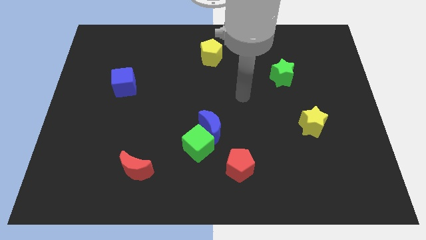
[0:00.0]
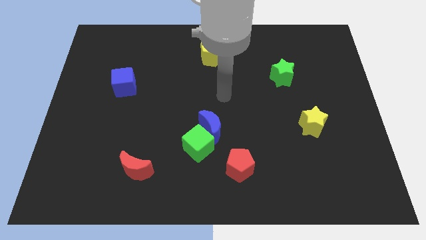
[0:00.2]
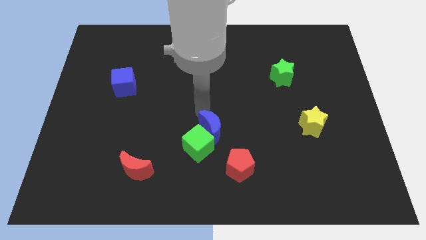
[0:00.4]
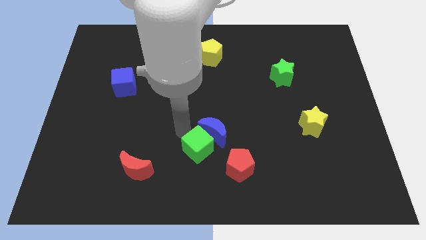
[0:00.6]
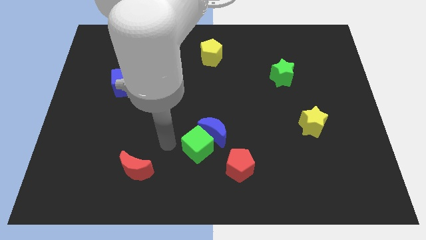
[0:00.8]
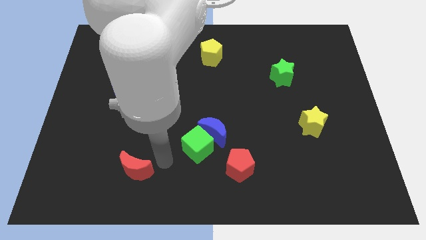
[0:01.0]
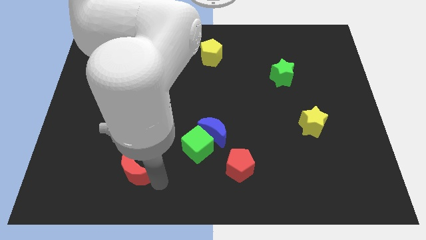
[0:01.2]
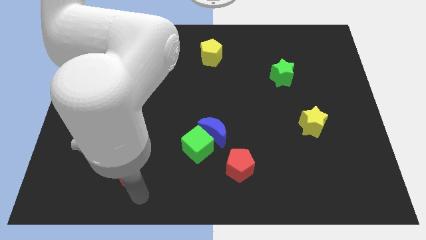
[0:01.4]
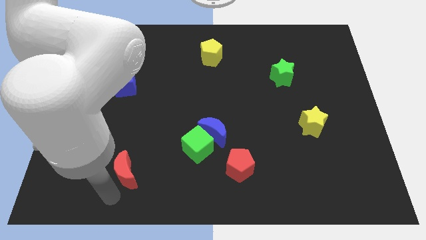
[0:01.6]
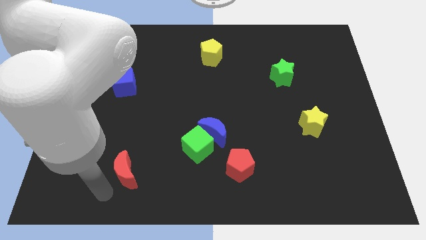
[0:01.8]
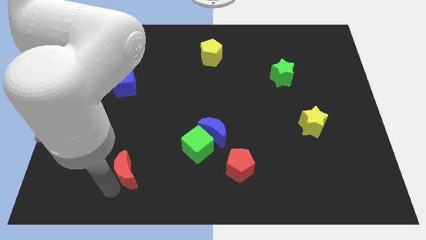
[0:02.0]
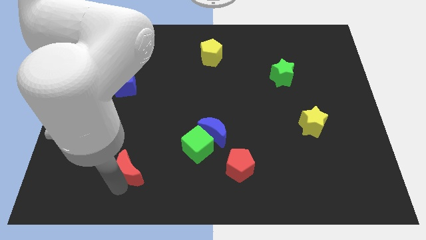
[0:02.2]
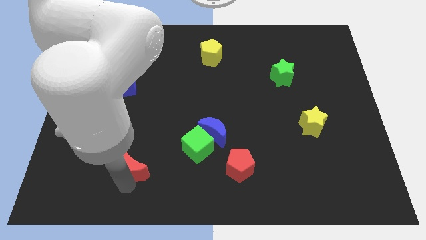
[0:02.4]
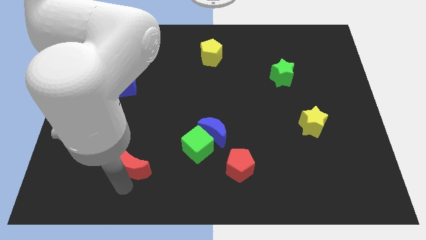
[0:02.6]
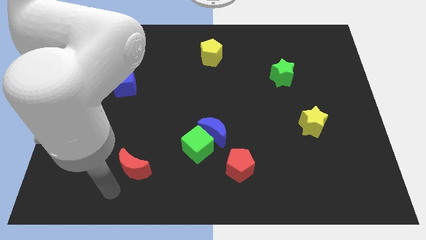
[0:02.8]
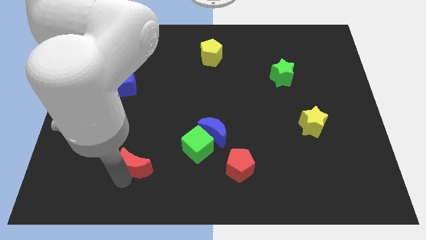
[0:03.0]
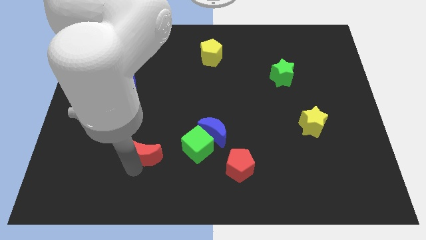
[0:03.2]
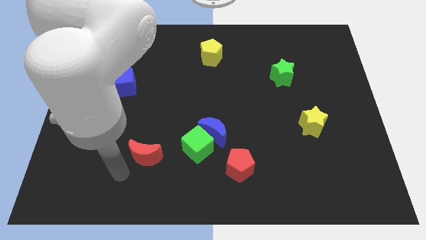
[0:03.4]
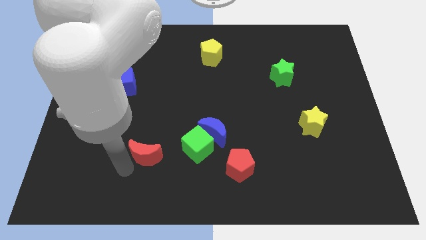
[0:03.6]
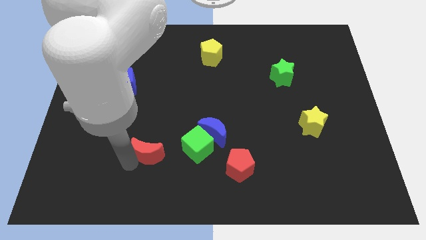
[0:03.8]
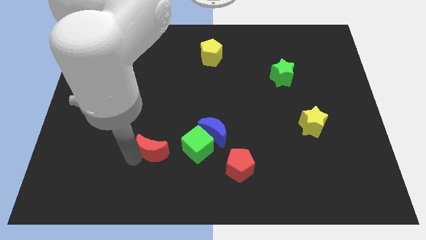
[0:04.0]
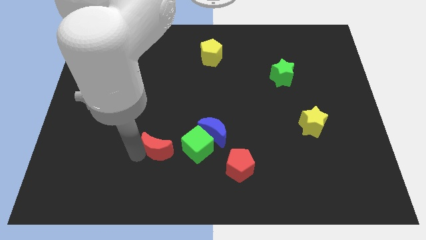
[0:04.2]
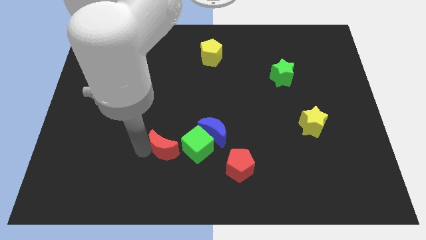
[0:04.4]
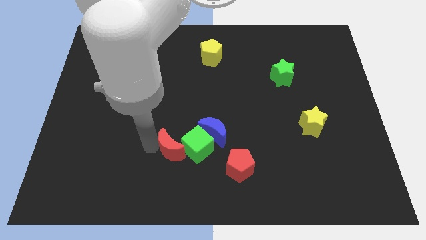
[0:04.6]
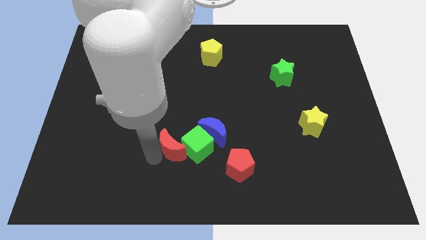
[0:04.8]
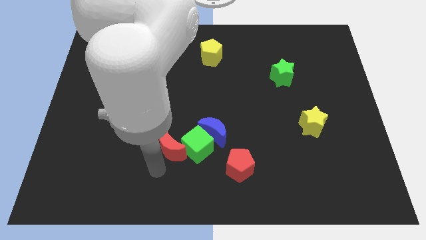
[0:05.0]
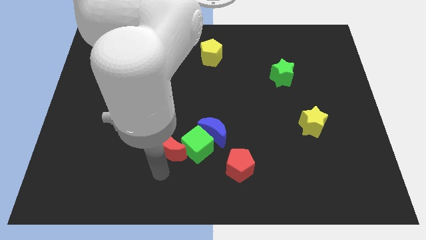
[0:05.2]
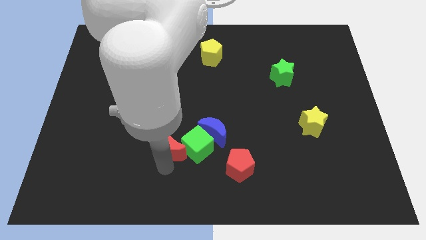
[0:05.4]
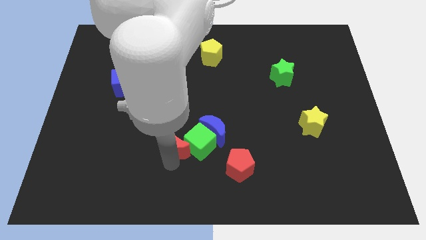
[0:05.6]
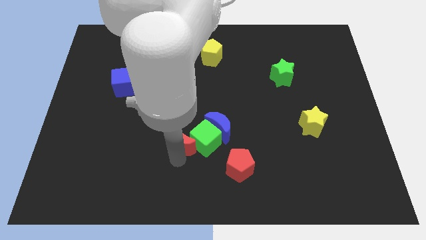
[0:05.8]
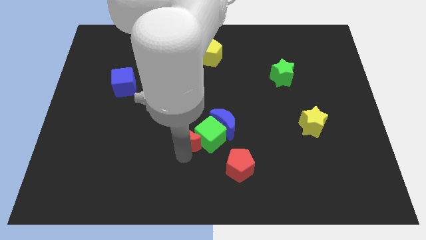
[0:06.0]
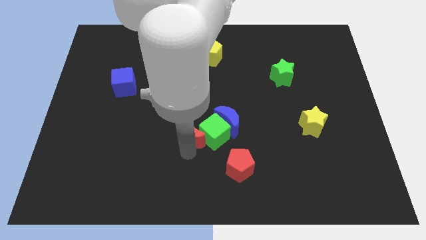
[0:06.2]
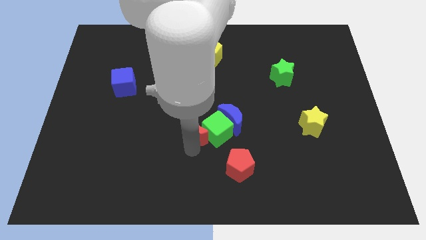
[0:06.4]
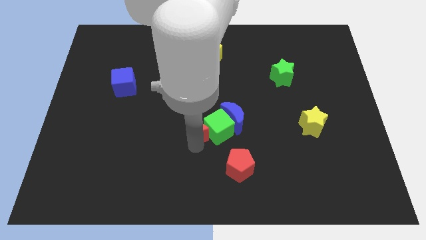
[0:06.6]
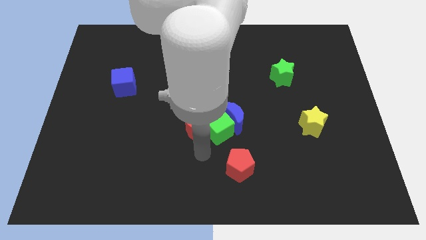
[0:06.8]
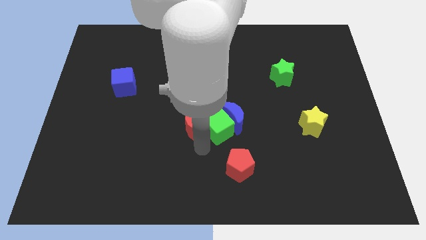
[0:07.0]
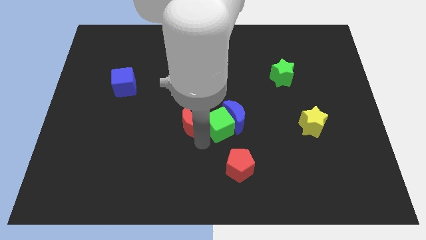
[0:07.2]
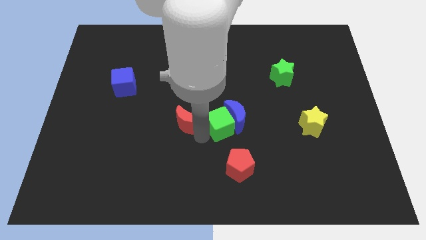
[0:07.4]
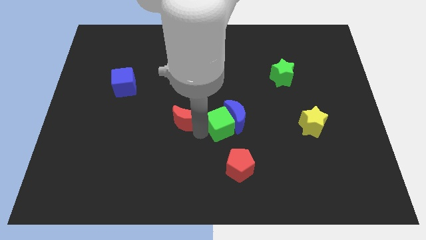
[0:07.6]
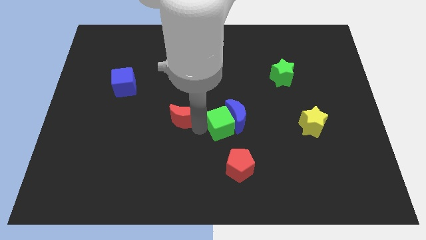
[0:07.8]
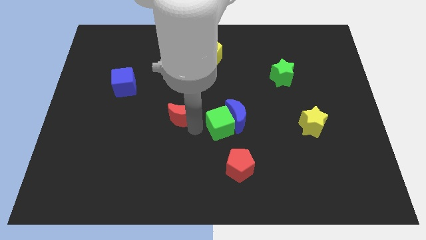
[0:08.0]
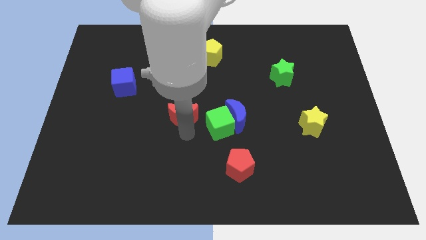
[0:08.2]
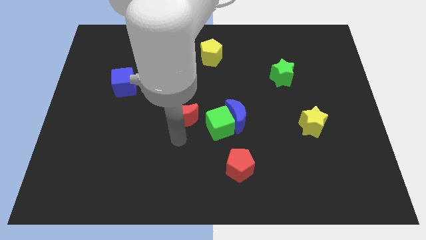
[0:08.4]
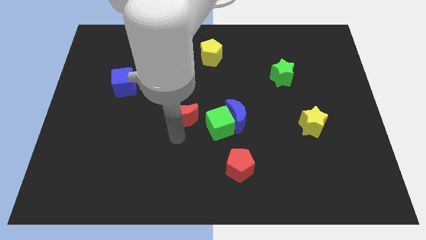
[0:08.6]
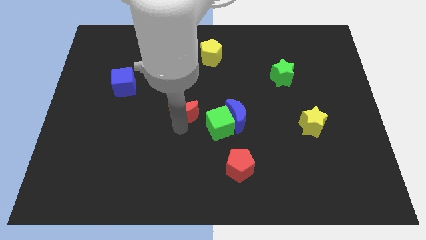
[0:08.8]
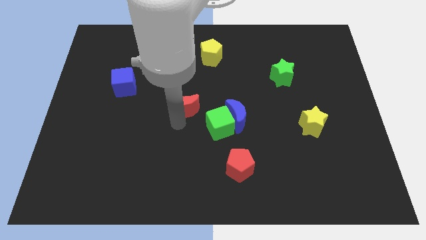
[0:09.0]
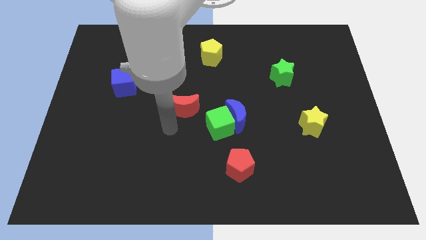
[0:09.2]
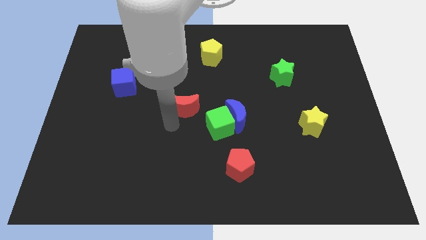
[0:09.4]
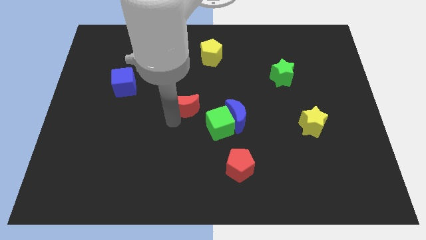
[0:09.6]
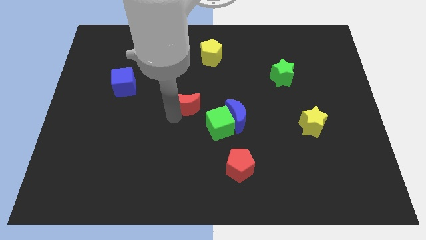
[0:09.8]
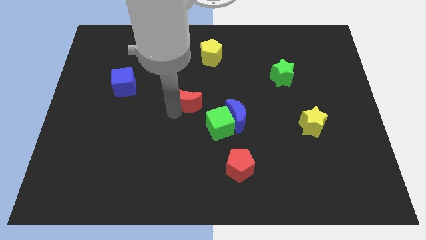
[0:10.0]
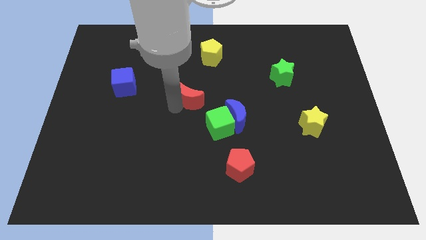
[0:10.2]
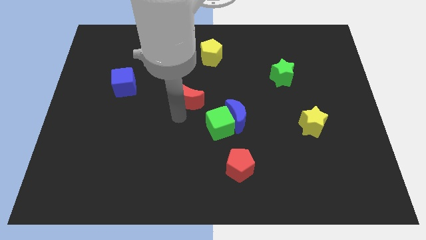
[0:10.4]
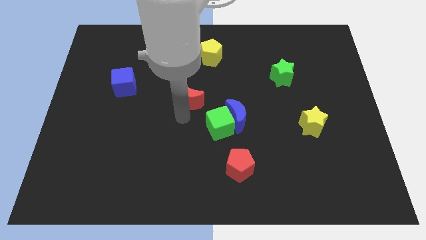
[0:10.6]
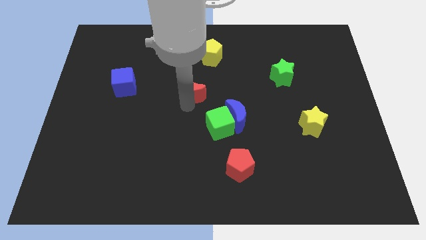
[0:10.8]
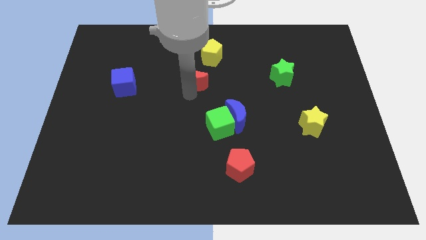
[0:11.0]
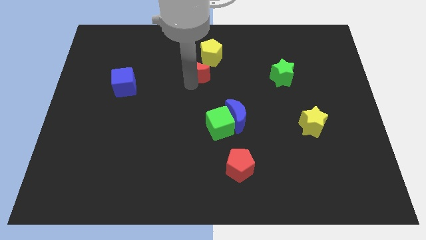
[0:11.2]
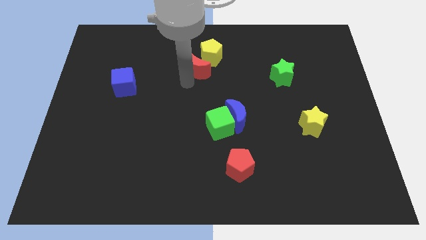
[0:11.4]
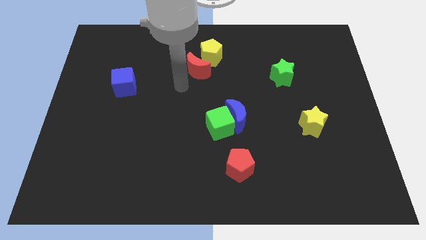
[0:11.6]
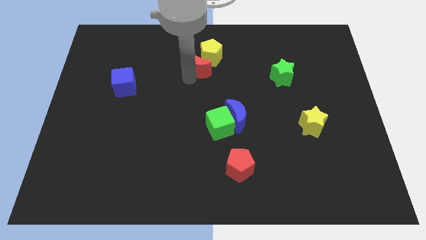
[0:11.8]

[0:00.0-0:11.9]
move the red moon next to the yellow pentagon

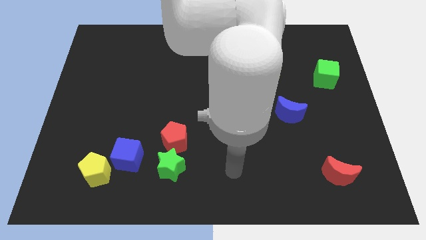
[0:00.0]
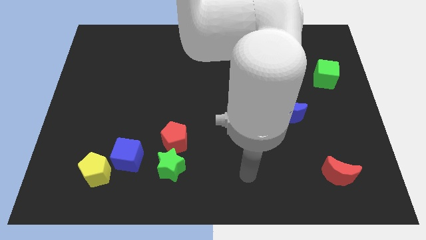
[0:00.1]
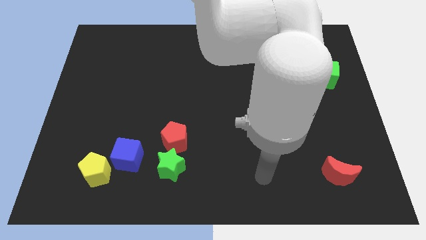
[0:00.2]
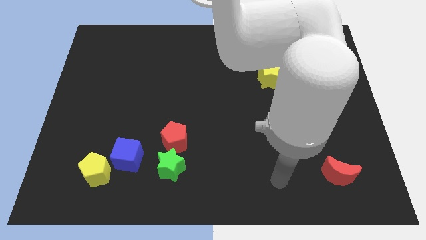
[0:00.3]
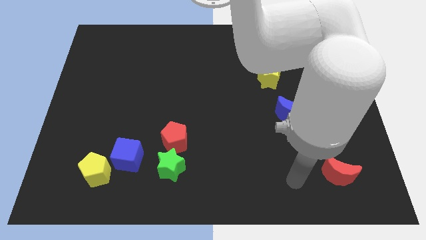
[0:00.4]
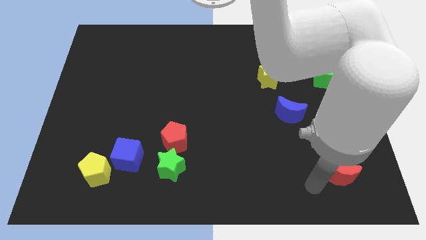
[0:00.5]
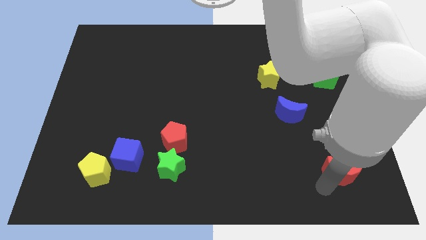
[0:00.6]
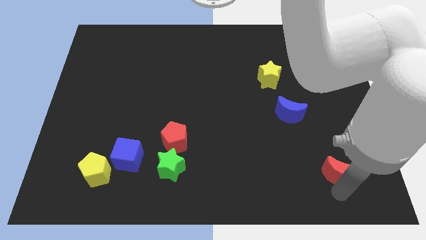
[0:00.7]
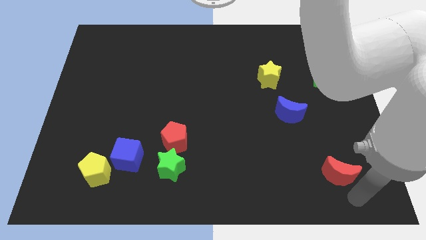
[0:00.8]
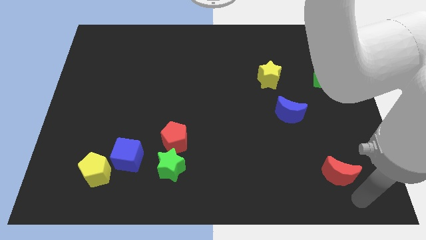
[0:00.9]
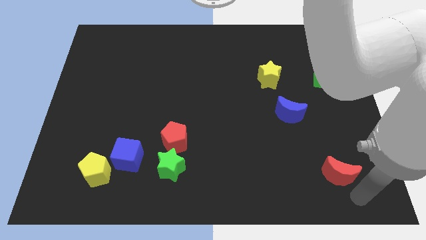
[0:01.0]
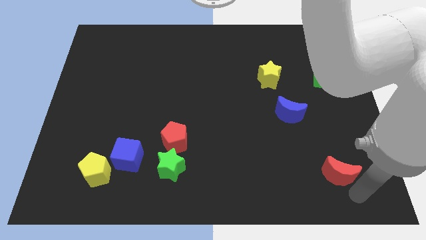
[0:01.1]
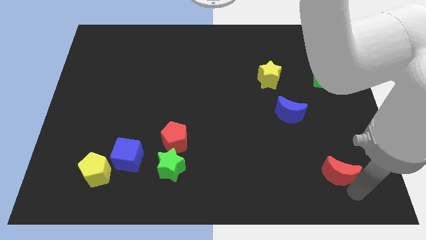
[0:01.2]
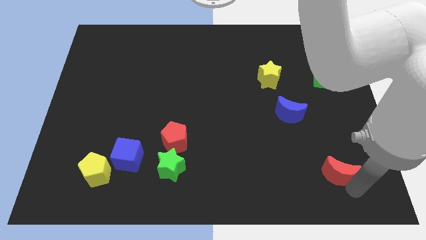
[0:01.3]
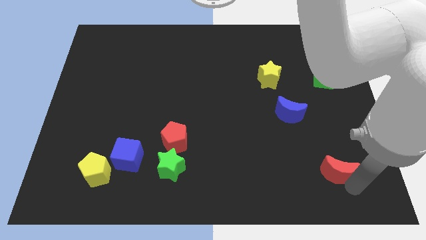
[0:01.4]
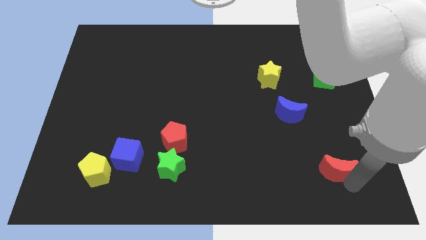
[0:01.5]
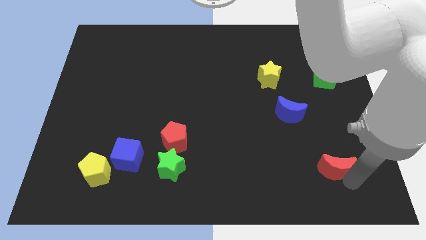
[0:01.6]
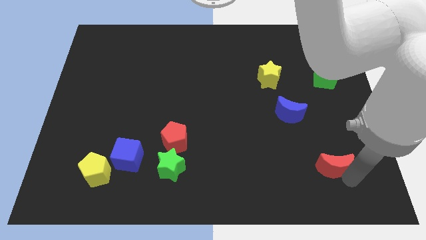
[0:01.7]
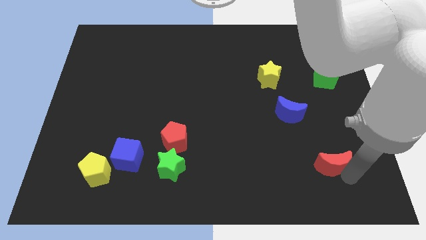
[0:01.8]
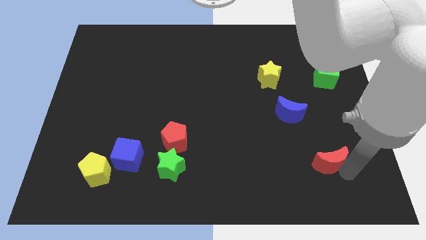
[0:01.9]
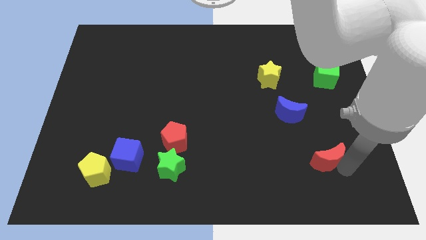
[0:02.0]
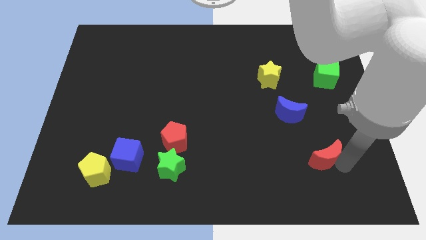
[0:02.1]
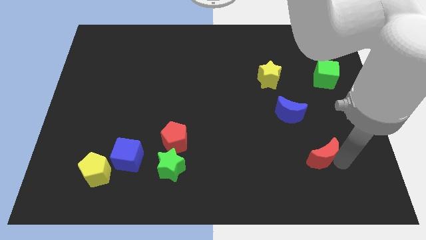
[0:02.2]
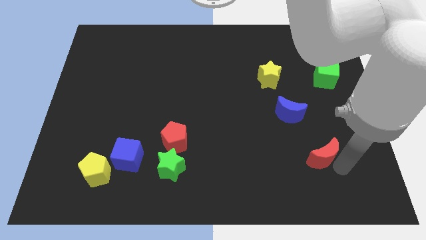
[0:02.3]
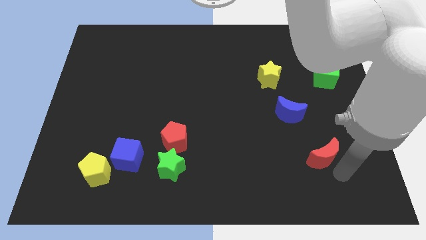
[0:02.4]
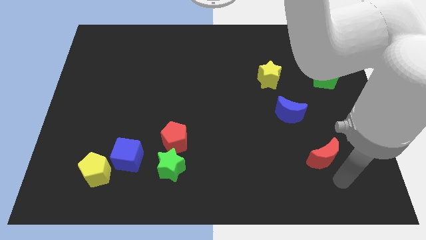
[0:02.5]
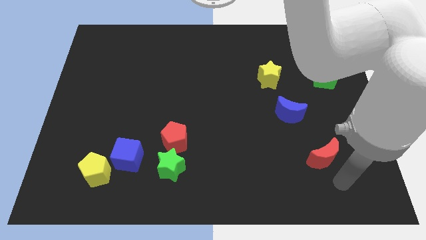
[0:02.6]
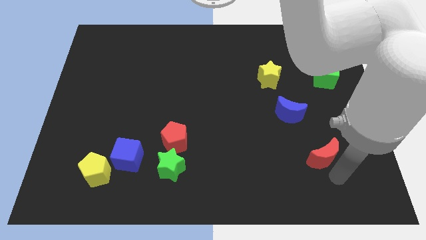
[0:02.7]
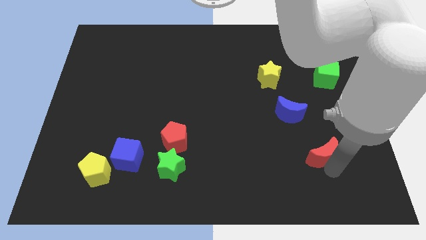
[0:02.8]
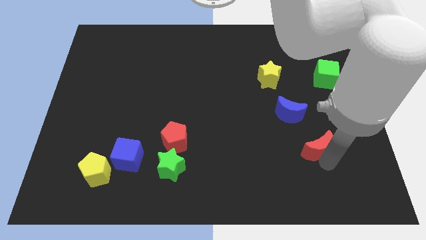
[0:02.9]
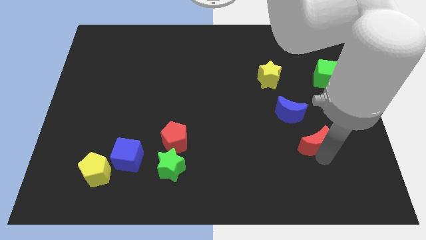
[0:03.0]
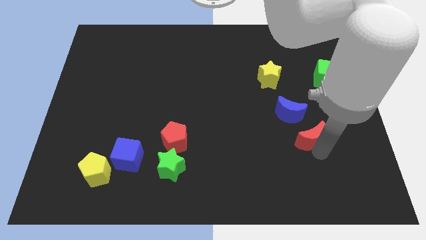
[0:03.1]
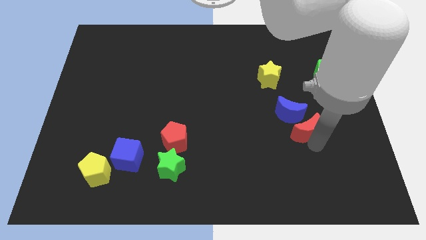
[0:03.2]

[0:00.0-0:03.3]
put the red moon close to the blue moon
